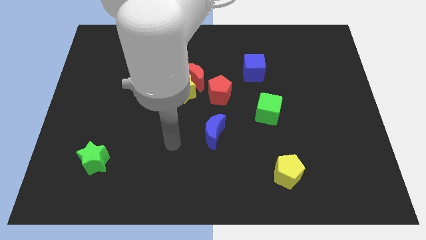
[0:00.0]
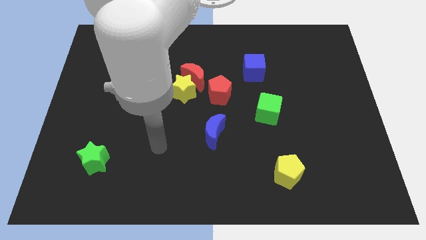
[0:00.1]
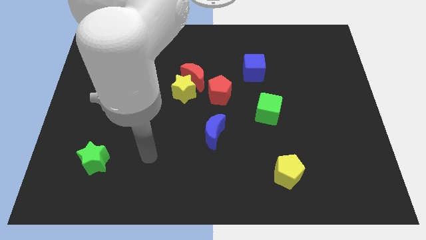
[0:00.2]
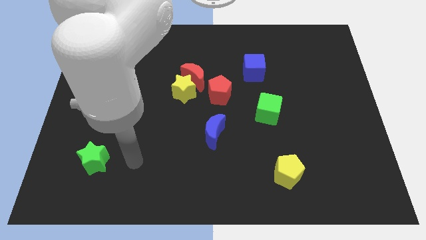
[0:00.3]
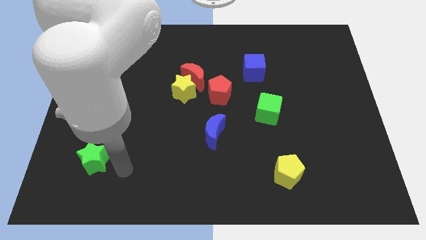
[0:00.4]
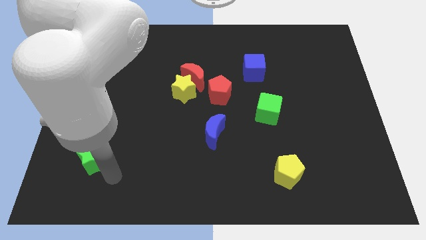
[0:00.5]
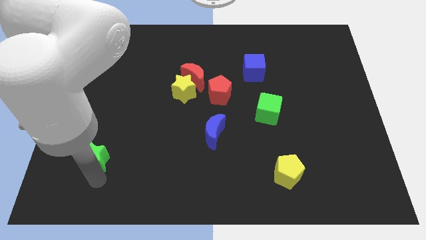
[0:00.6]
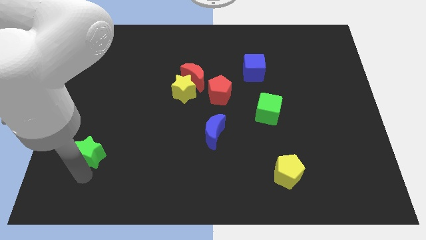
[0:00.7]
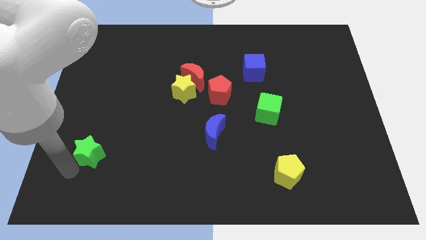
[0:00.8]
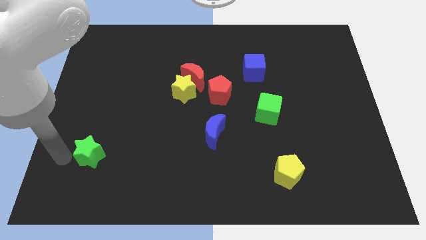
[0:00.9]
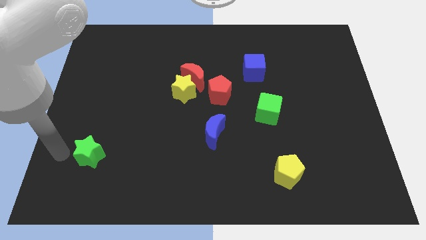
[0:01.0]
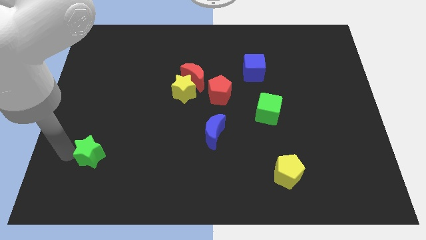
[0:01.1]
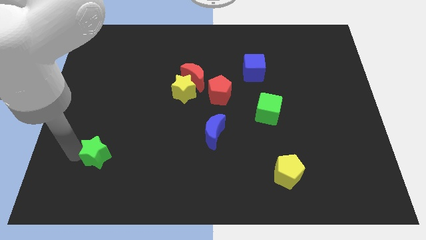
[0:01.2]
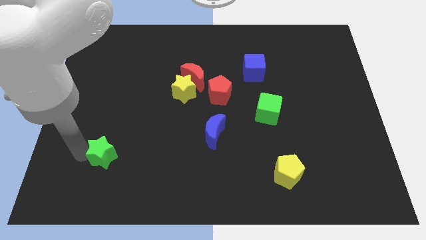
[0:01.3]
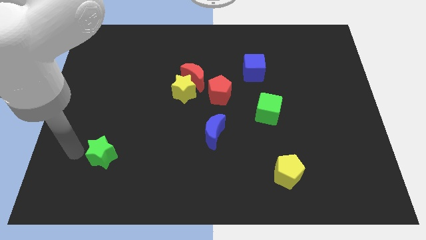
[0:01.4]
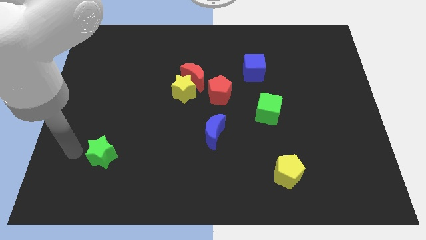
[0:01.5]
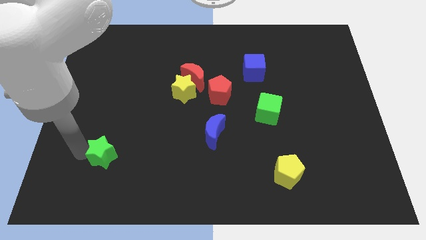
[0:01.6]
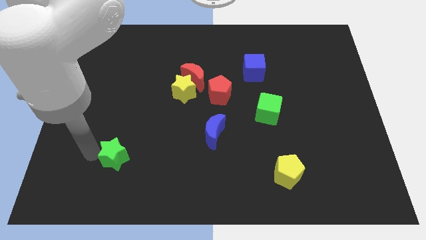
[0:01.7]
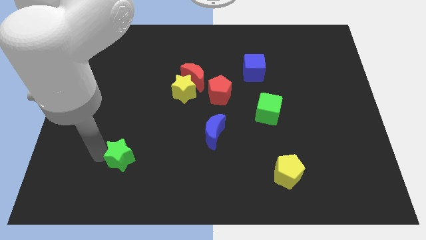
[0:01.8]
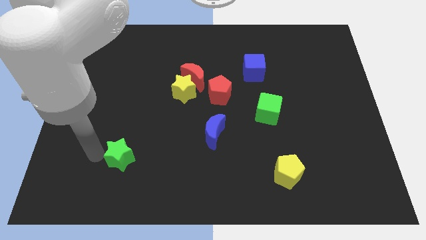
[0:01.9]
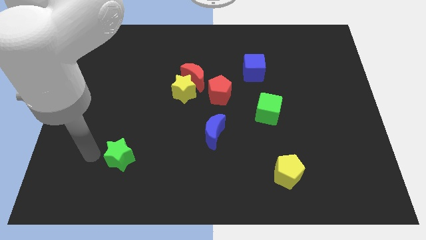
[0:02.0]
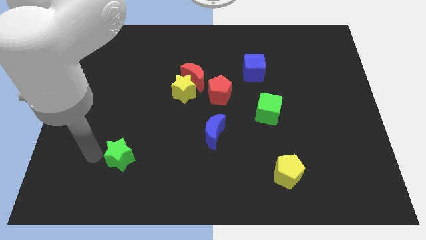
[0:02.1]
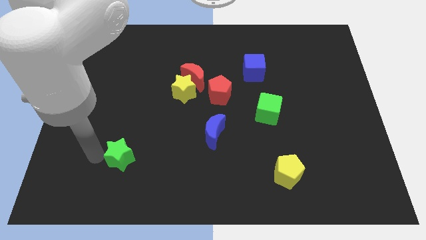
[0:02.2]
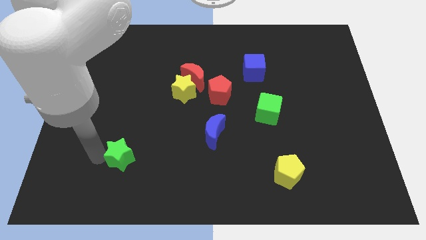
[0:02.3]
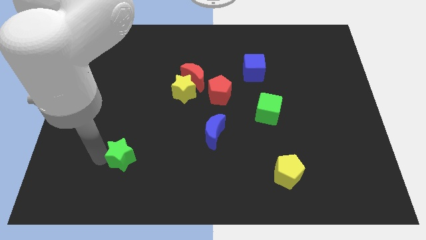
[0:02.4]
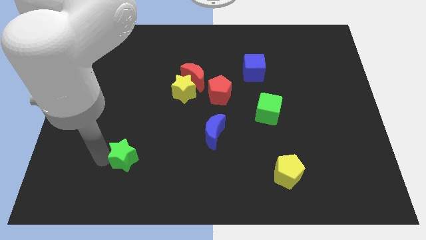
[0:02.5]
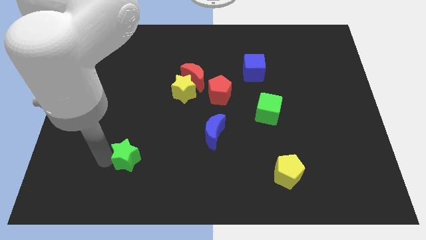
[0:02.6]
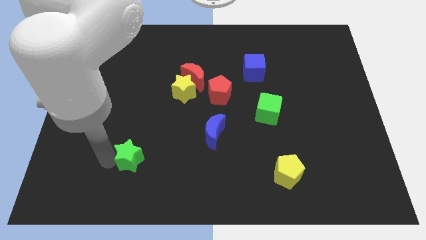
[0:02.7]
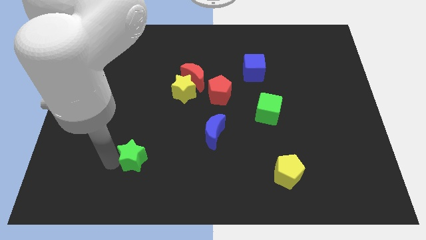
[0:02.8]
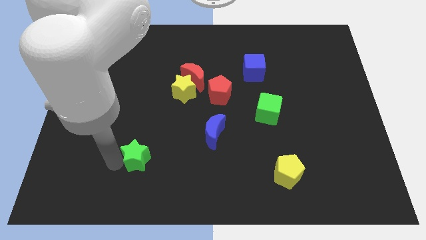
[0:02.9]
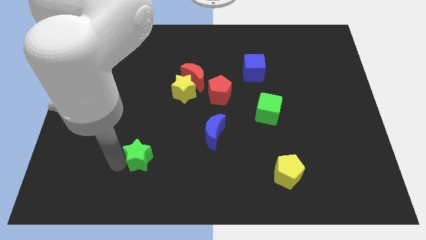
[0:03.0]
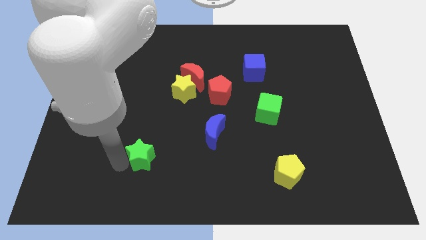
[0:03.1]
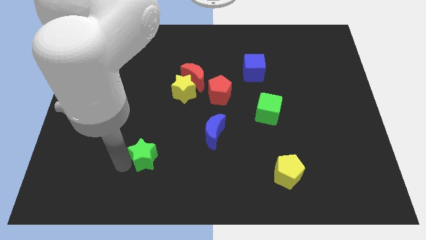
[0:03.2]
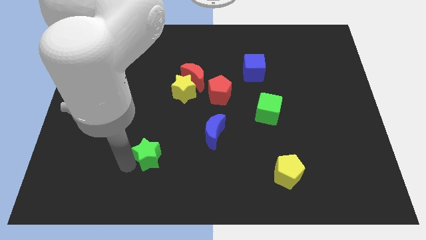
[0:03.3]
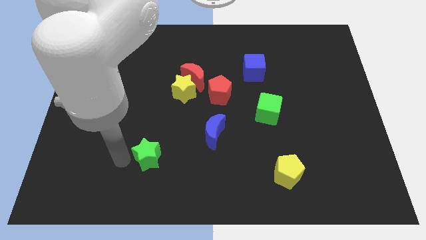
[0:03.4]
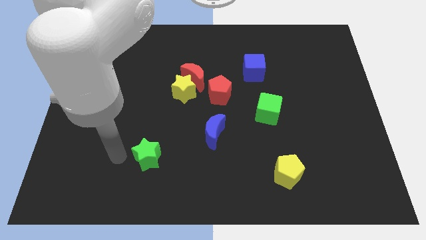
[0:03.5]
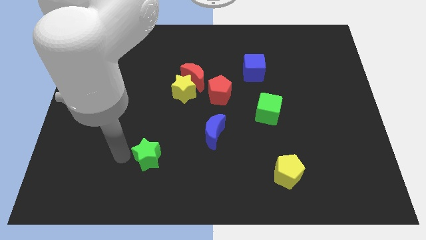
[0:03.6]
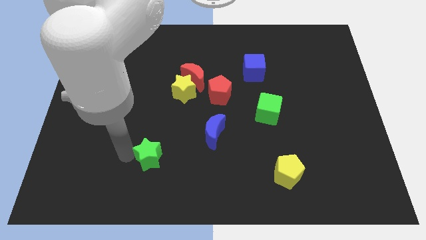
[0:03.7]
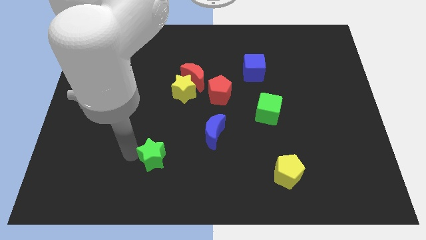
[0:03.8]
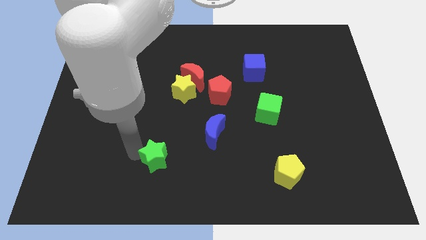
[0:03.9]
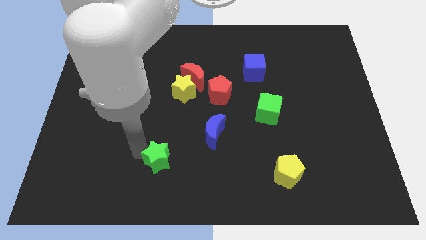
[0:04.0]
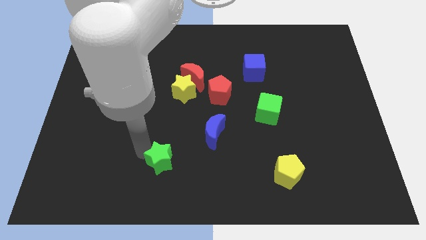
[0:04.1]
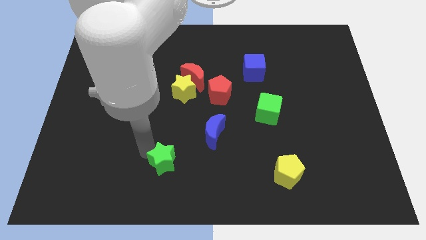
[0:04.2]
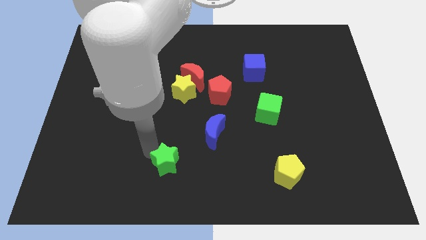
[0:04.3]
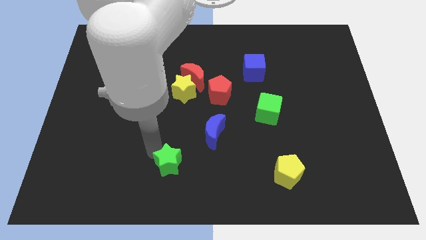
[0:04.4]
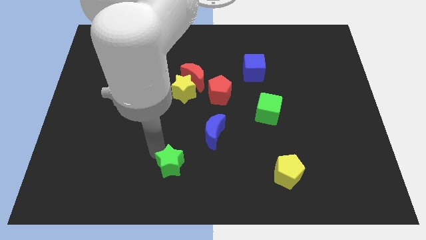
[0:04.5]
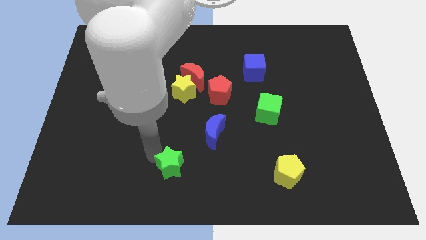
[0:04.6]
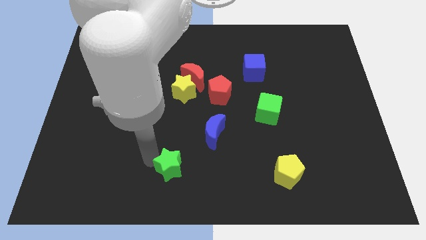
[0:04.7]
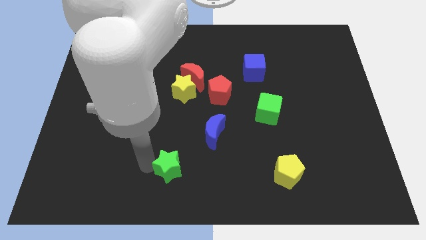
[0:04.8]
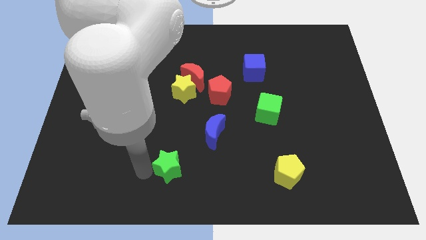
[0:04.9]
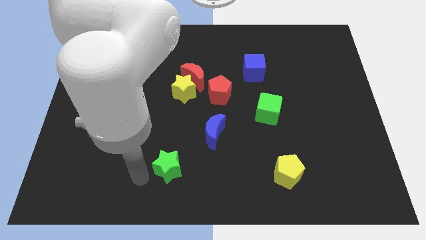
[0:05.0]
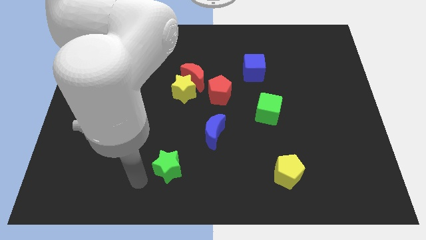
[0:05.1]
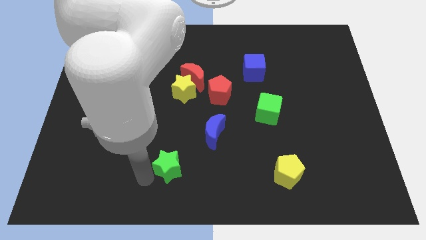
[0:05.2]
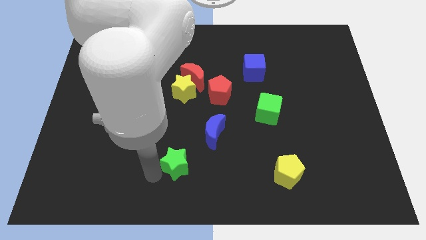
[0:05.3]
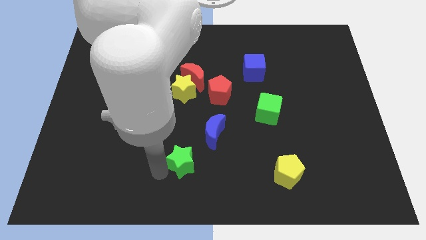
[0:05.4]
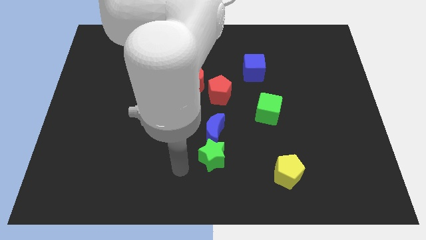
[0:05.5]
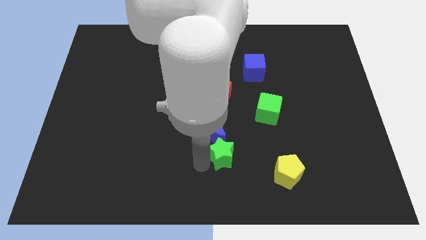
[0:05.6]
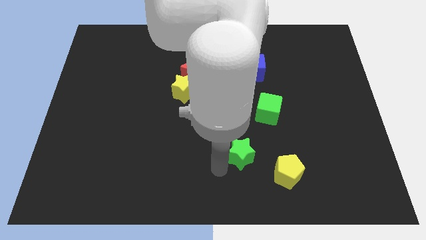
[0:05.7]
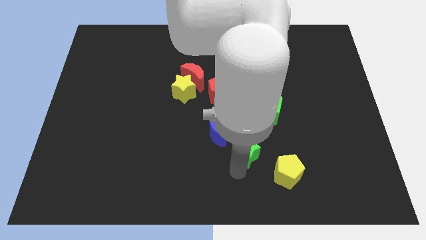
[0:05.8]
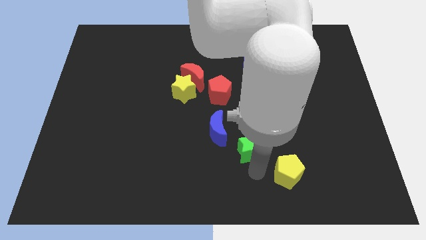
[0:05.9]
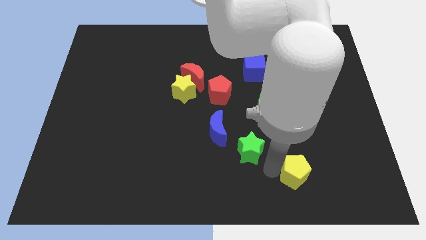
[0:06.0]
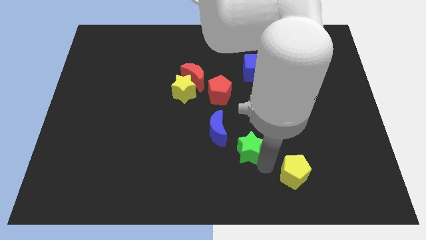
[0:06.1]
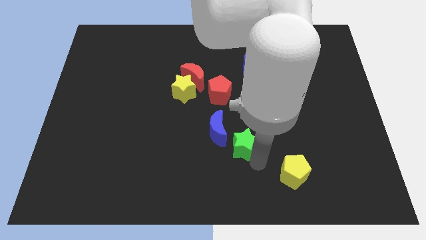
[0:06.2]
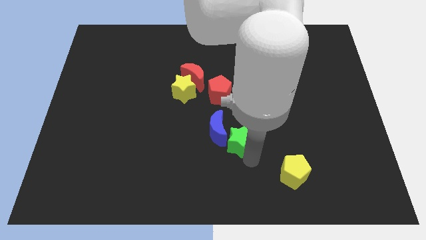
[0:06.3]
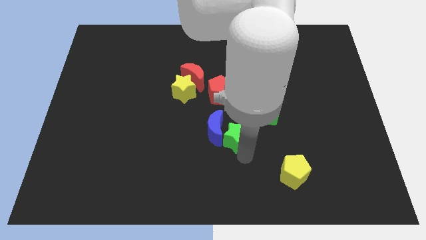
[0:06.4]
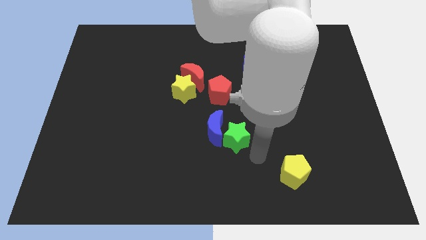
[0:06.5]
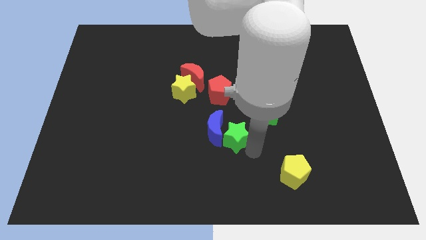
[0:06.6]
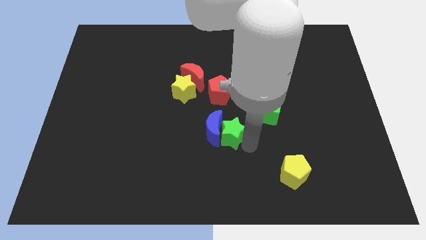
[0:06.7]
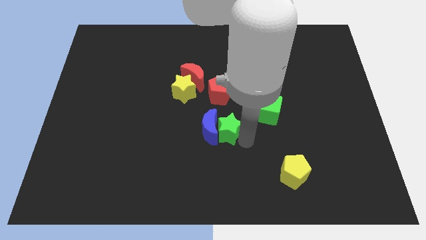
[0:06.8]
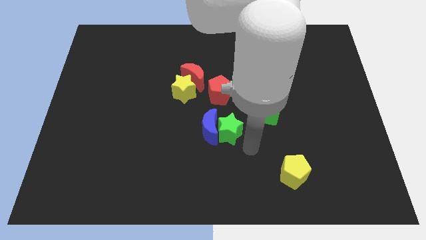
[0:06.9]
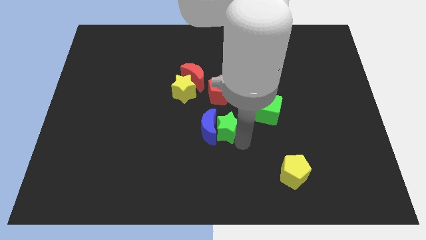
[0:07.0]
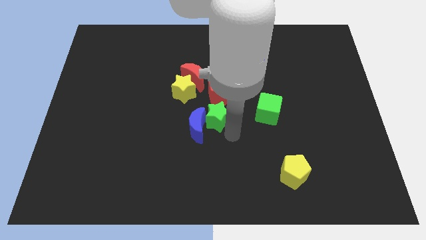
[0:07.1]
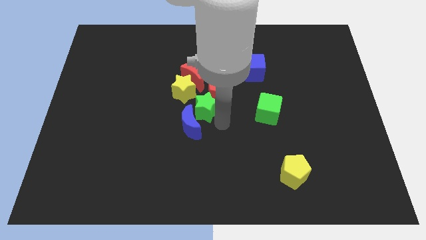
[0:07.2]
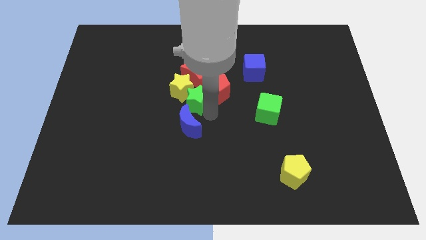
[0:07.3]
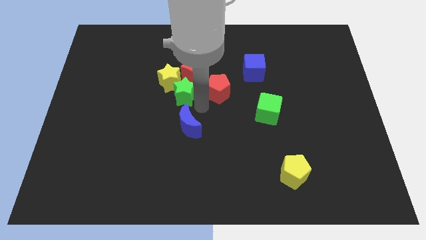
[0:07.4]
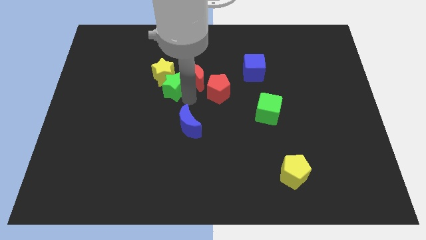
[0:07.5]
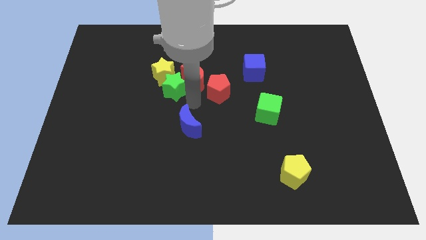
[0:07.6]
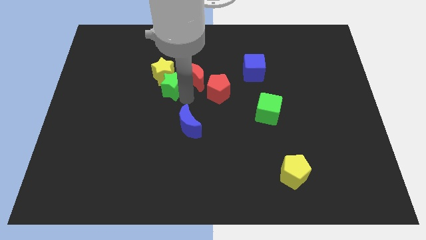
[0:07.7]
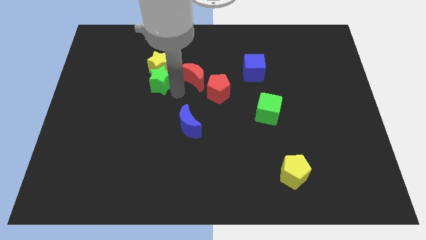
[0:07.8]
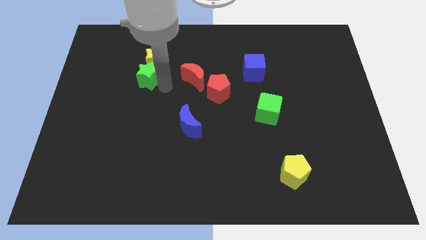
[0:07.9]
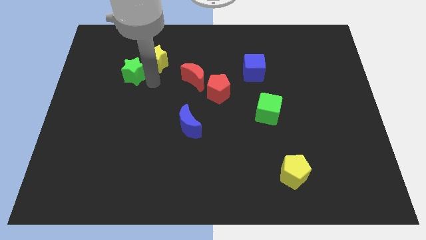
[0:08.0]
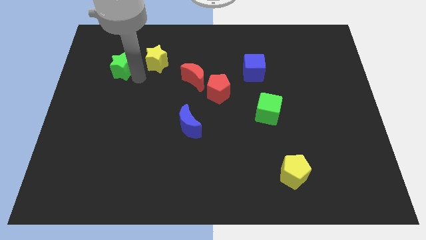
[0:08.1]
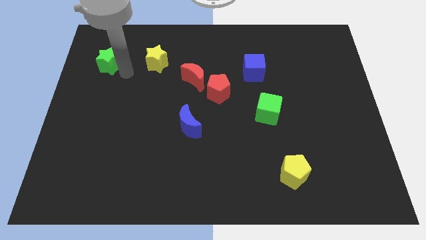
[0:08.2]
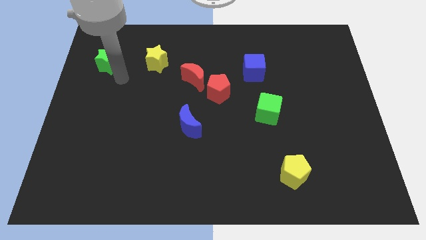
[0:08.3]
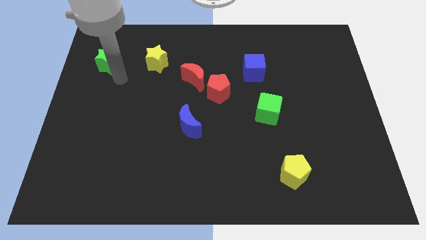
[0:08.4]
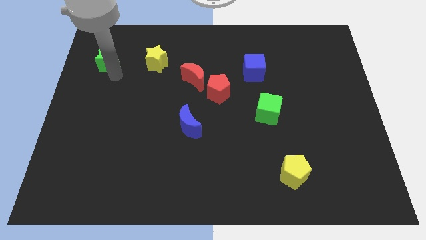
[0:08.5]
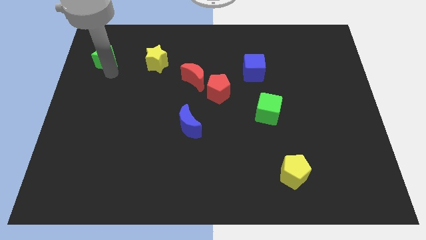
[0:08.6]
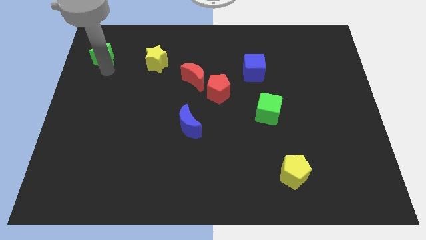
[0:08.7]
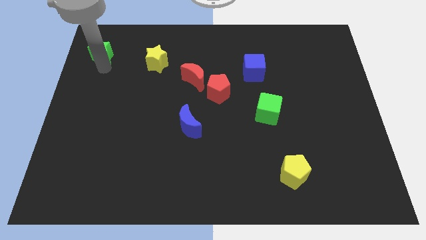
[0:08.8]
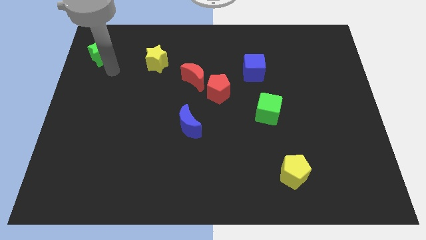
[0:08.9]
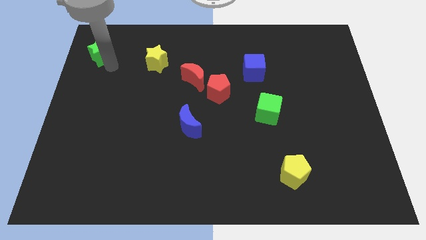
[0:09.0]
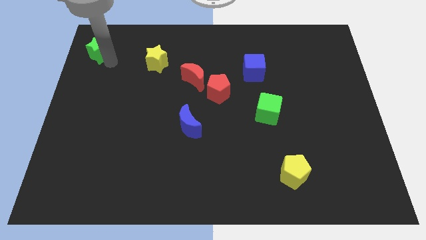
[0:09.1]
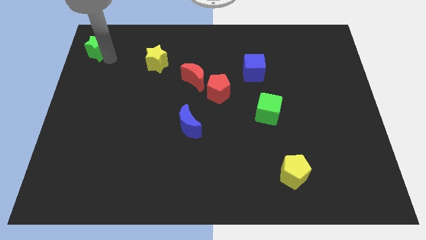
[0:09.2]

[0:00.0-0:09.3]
push the green star to the top left of the board
